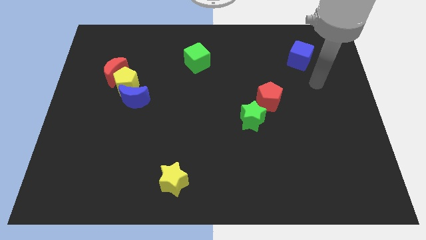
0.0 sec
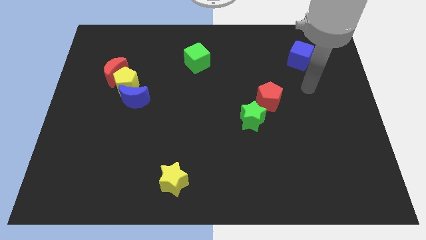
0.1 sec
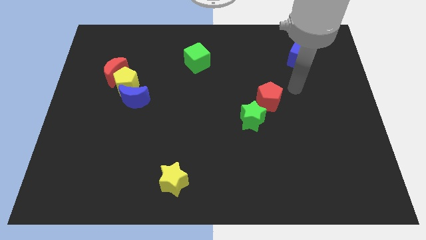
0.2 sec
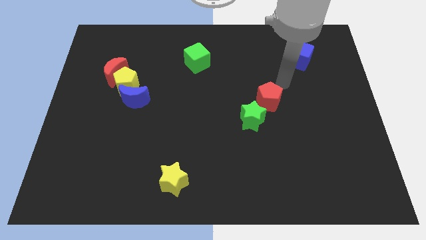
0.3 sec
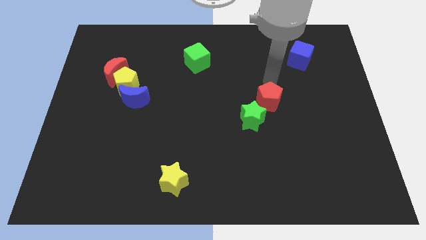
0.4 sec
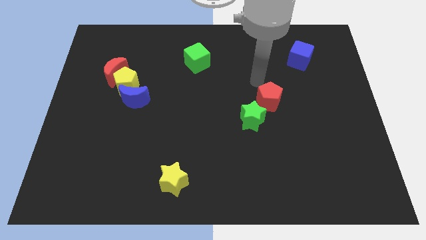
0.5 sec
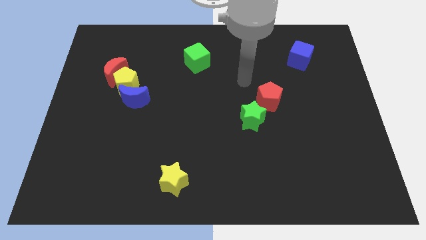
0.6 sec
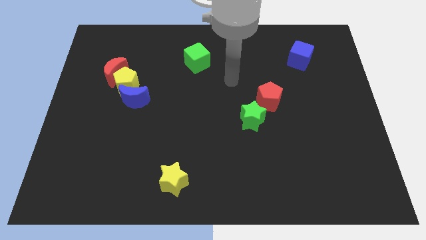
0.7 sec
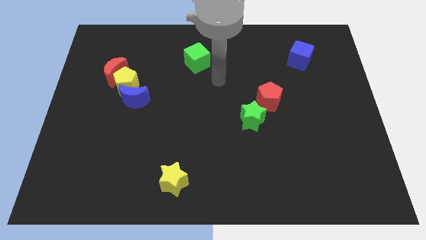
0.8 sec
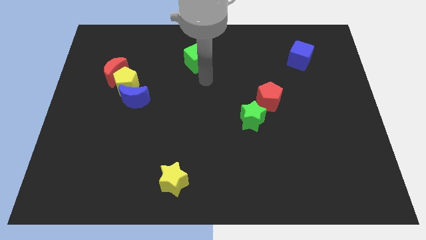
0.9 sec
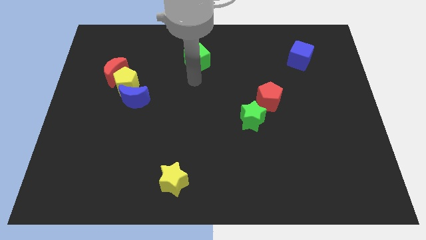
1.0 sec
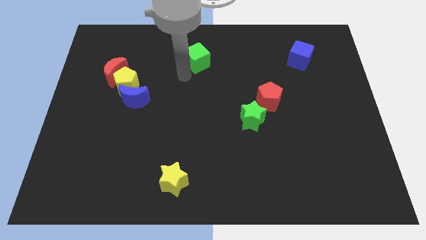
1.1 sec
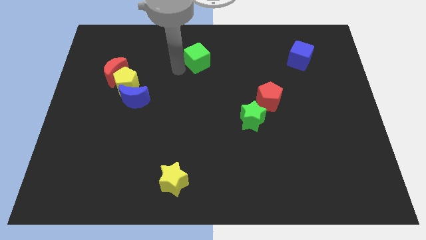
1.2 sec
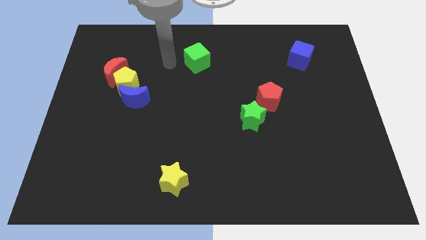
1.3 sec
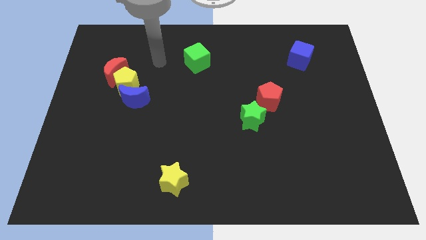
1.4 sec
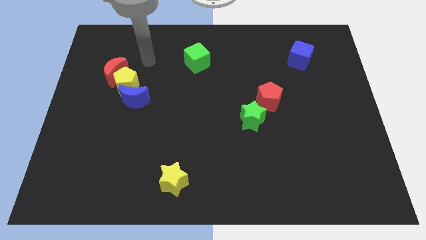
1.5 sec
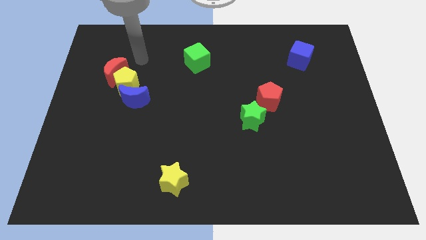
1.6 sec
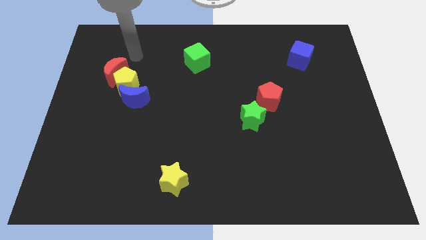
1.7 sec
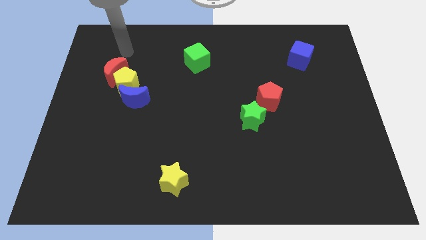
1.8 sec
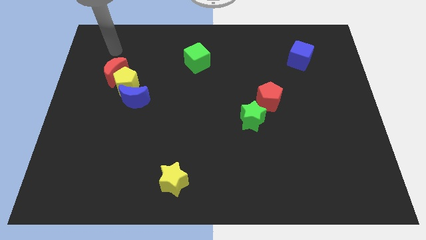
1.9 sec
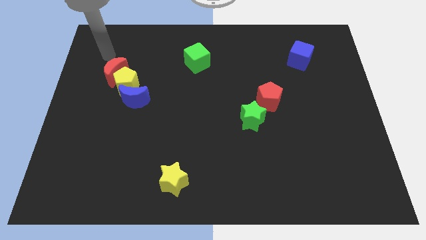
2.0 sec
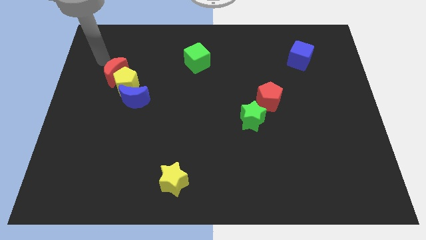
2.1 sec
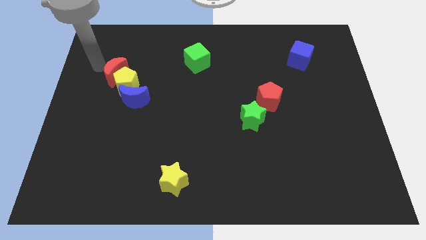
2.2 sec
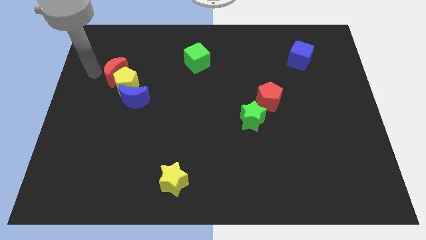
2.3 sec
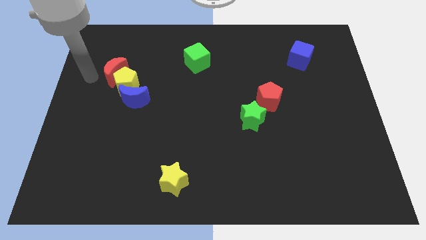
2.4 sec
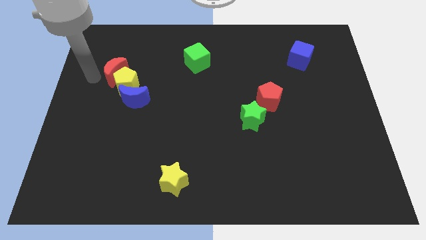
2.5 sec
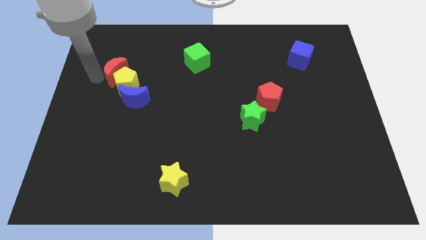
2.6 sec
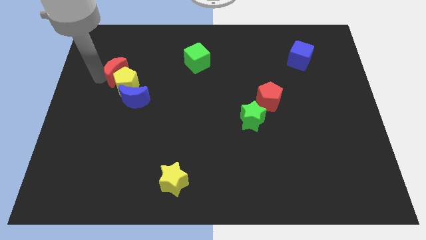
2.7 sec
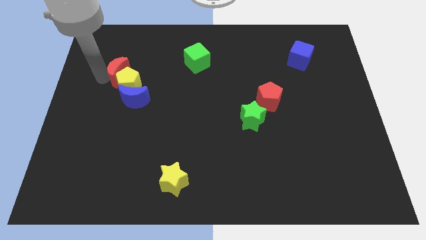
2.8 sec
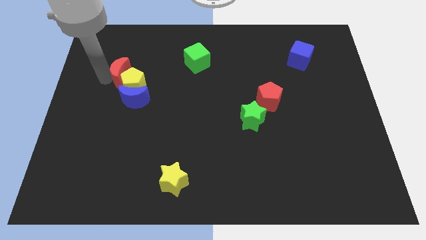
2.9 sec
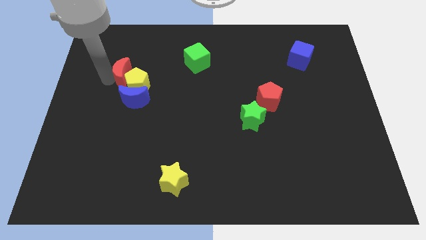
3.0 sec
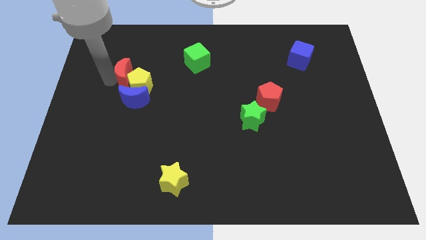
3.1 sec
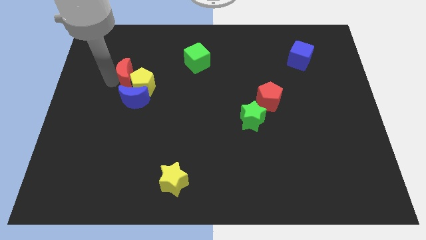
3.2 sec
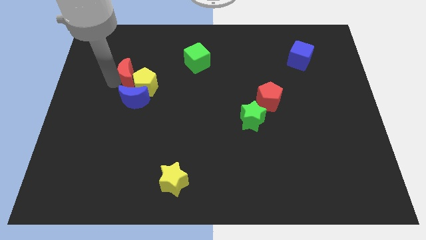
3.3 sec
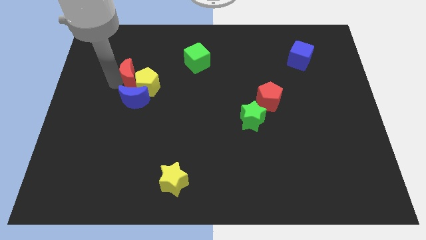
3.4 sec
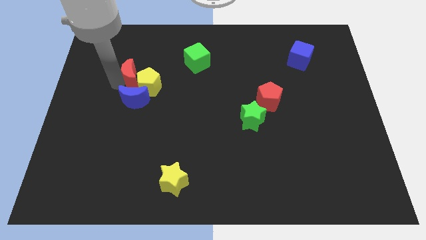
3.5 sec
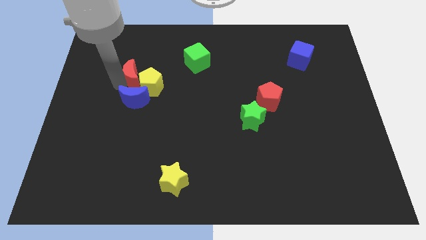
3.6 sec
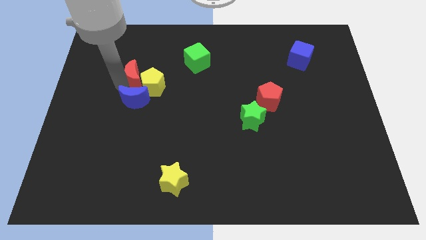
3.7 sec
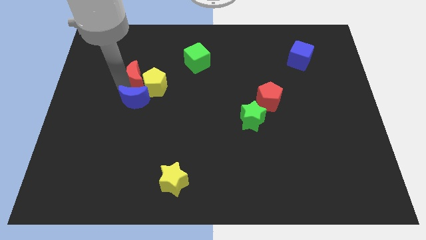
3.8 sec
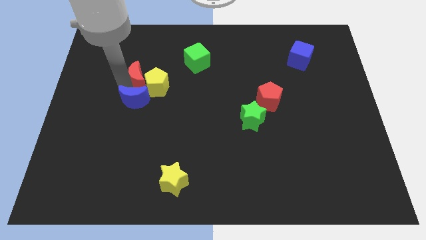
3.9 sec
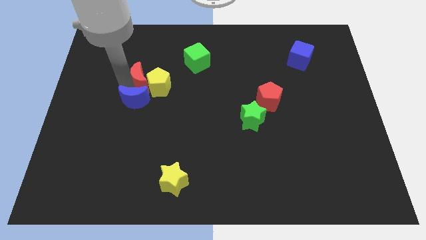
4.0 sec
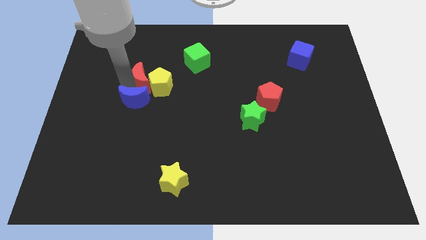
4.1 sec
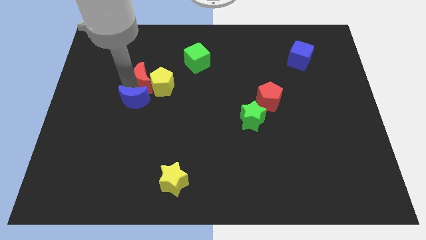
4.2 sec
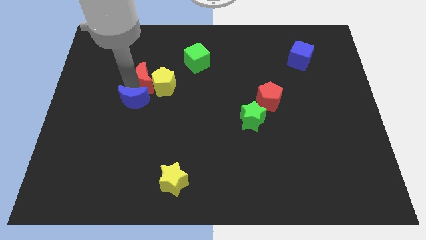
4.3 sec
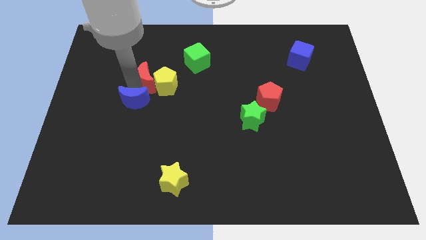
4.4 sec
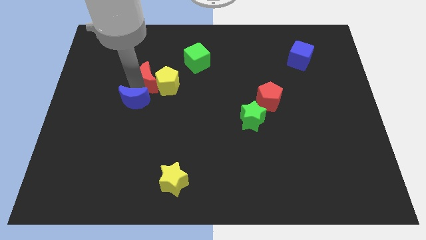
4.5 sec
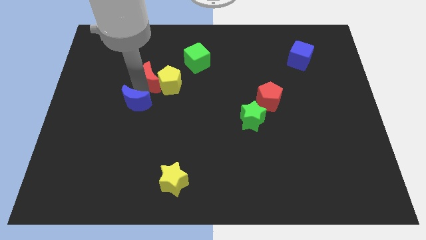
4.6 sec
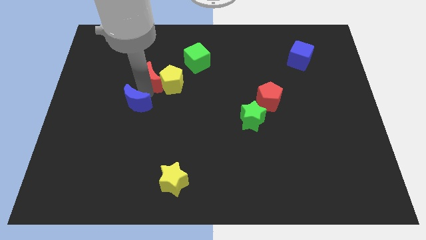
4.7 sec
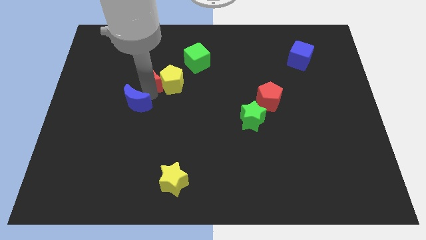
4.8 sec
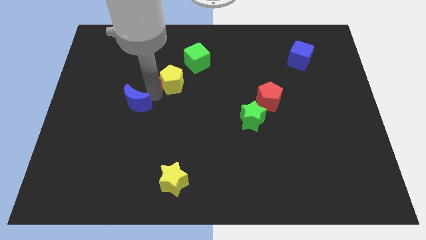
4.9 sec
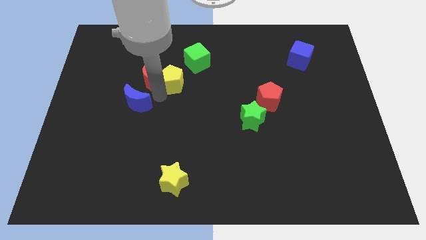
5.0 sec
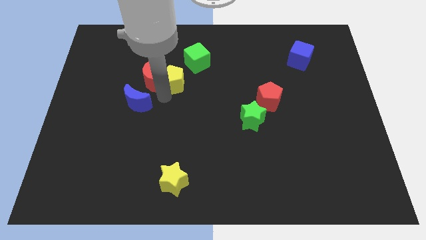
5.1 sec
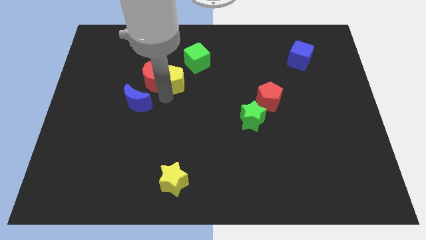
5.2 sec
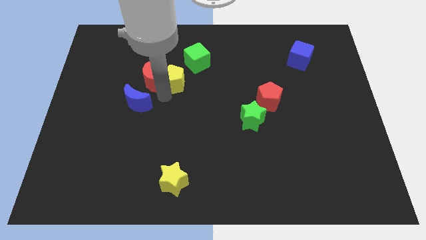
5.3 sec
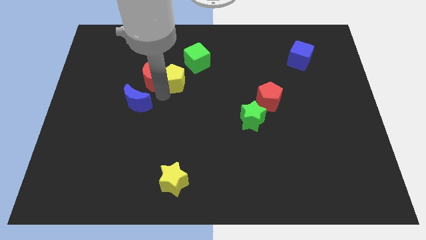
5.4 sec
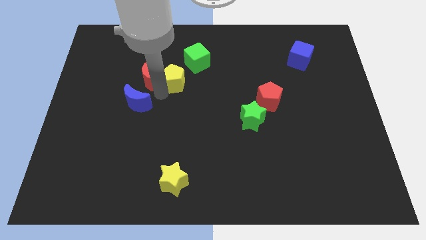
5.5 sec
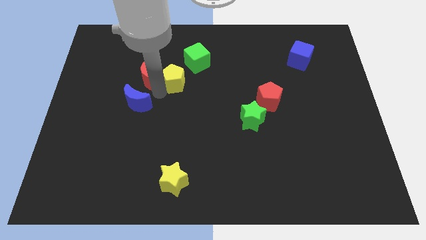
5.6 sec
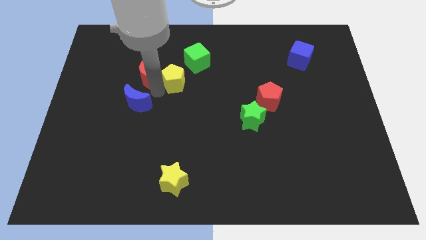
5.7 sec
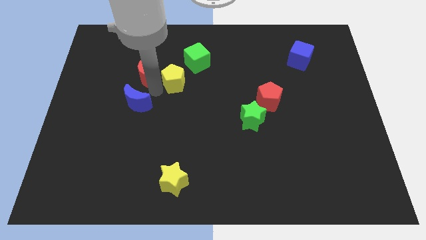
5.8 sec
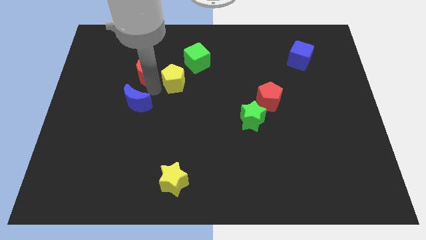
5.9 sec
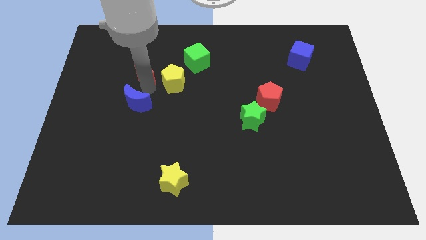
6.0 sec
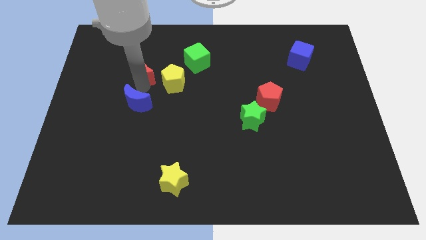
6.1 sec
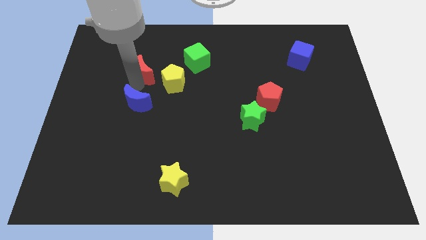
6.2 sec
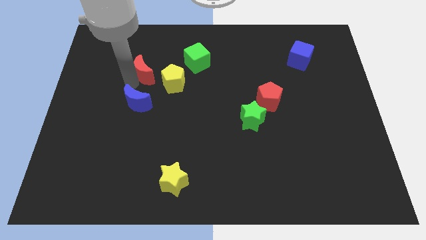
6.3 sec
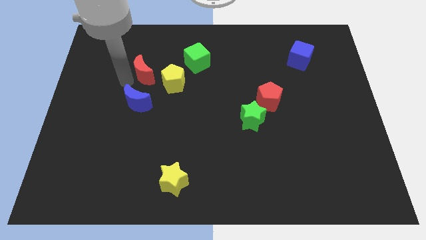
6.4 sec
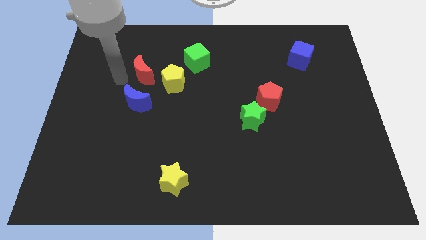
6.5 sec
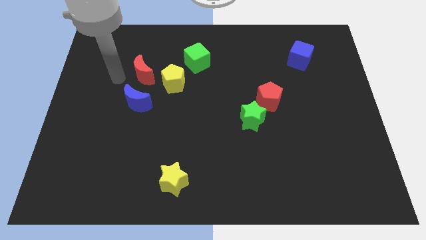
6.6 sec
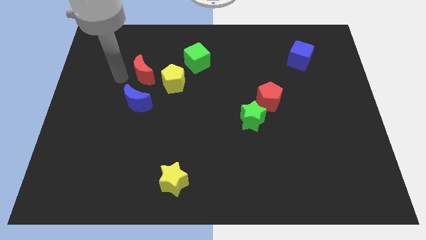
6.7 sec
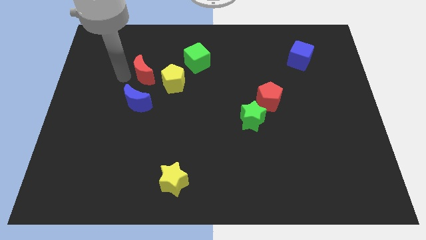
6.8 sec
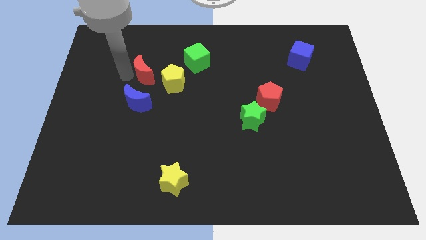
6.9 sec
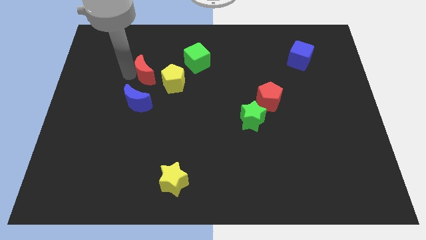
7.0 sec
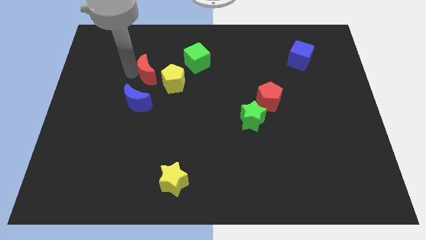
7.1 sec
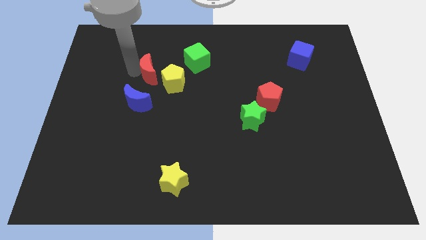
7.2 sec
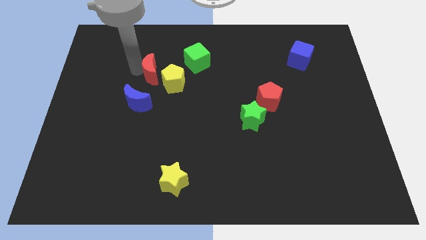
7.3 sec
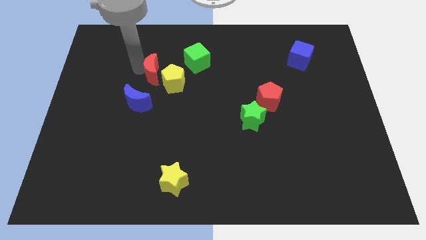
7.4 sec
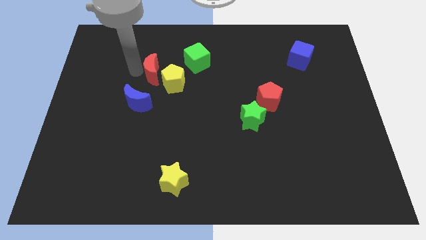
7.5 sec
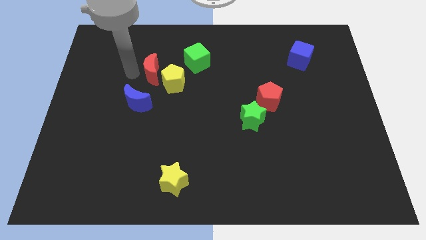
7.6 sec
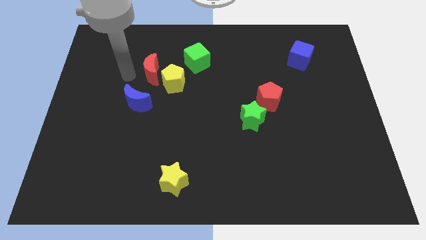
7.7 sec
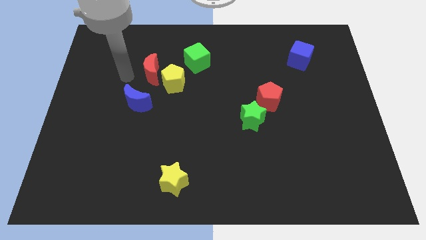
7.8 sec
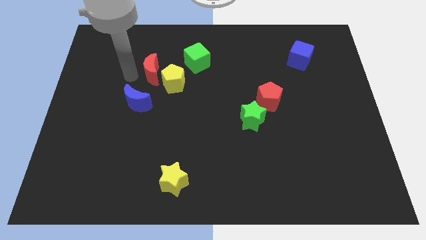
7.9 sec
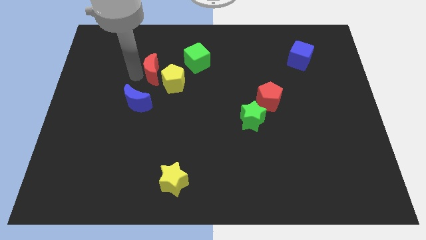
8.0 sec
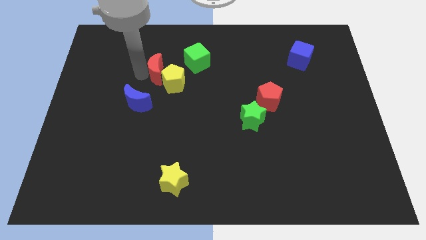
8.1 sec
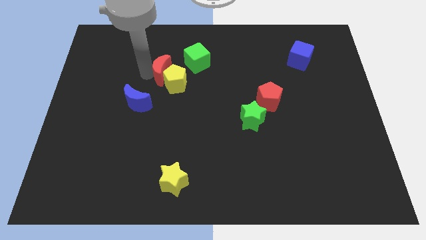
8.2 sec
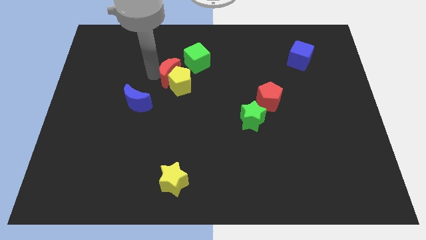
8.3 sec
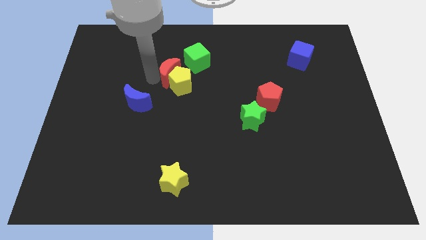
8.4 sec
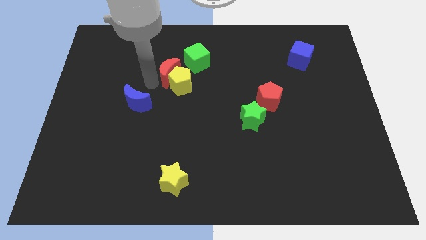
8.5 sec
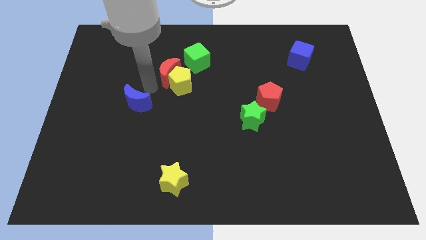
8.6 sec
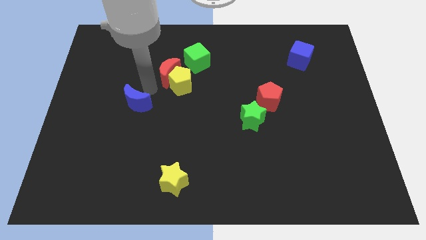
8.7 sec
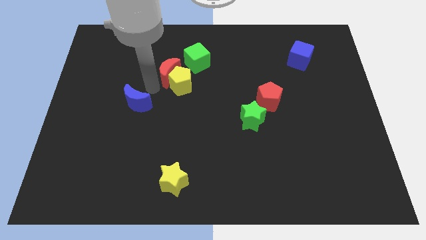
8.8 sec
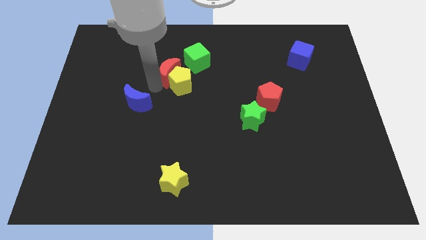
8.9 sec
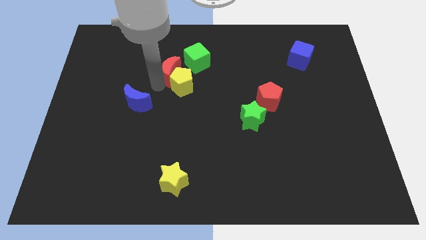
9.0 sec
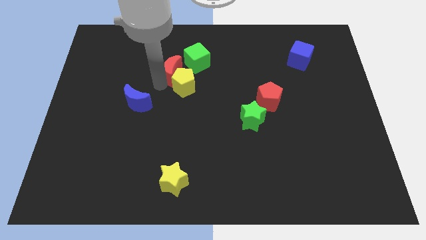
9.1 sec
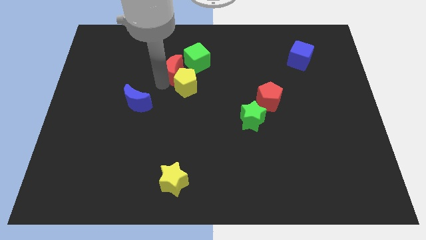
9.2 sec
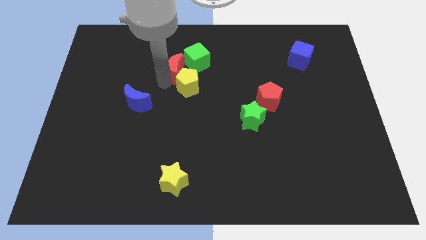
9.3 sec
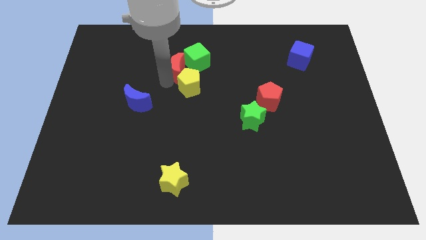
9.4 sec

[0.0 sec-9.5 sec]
put the red moon to the green cube
